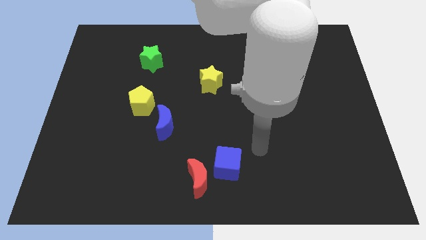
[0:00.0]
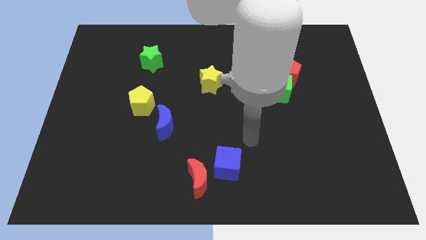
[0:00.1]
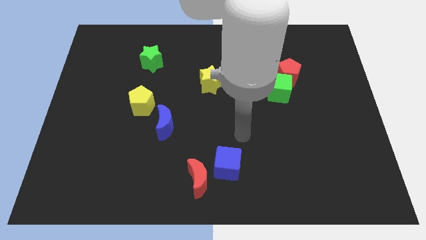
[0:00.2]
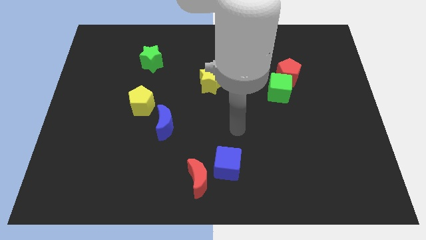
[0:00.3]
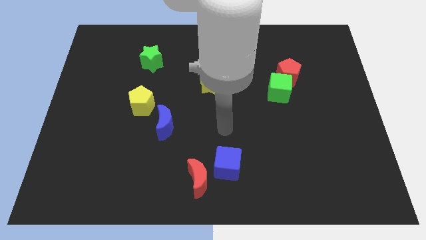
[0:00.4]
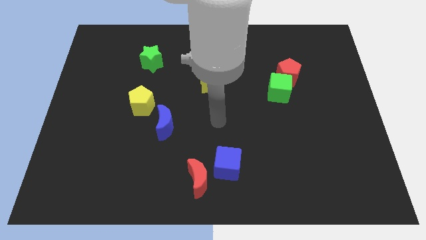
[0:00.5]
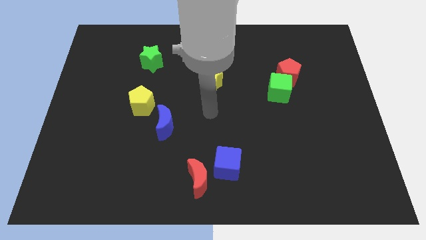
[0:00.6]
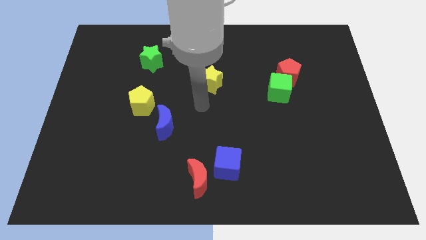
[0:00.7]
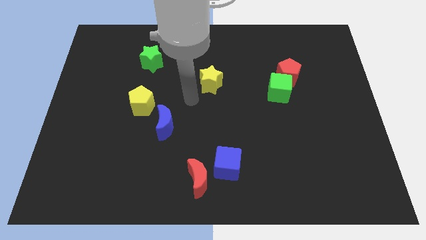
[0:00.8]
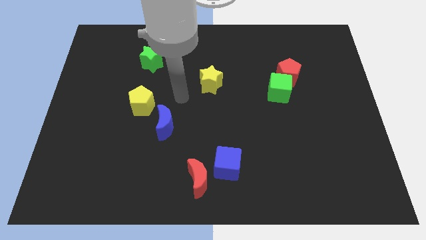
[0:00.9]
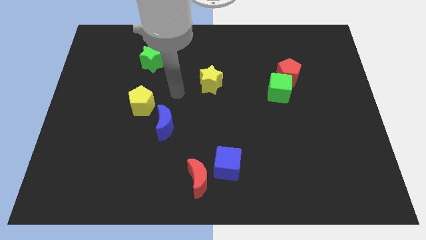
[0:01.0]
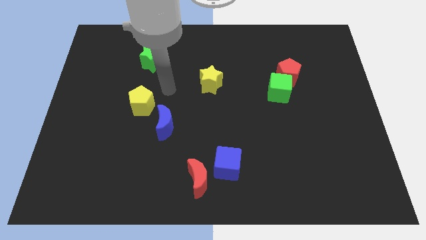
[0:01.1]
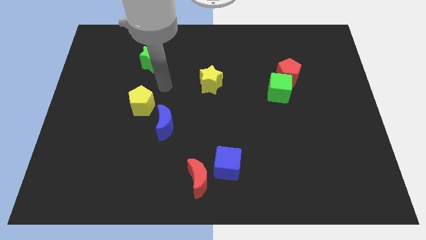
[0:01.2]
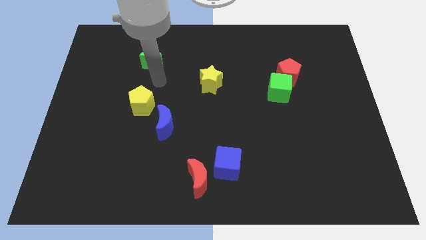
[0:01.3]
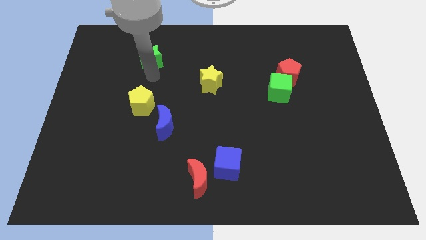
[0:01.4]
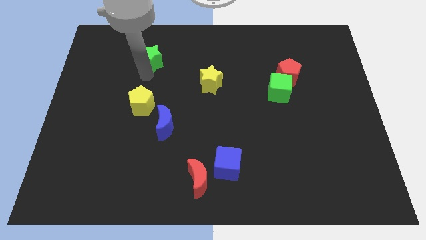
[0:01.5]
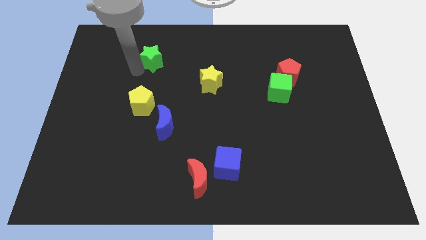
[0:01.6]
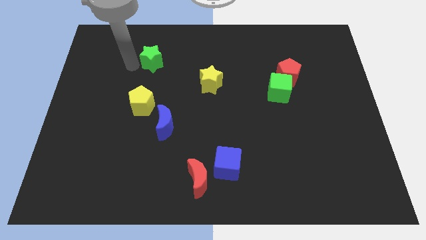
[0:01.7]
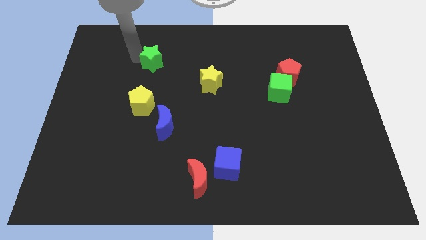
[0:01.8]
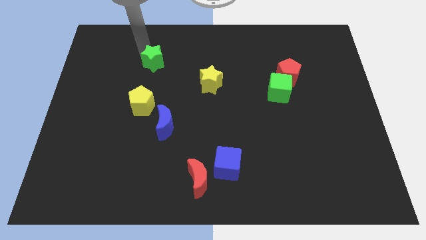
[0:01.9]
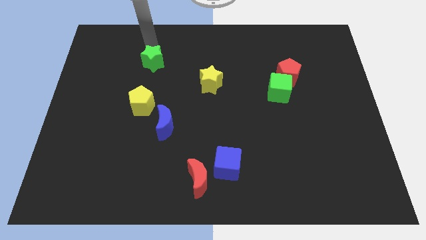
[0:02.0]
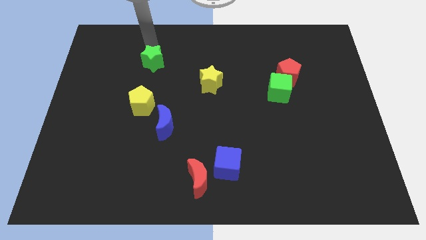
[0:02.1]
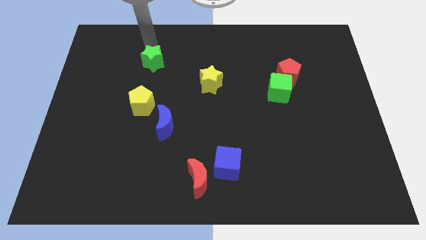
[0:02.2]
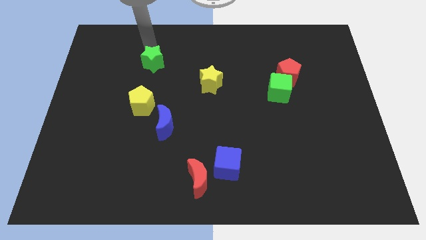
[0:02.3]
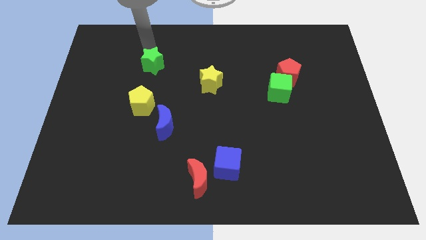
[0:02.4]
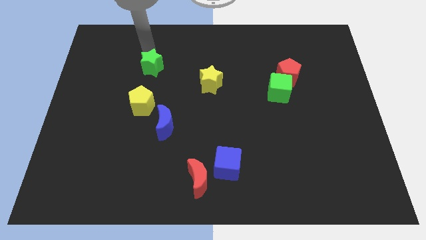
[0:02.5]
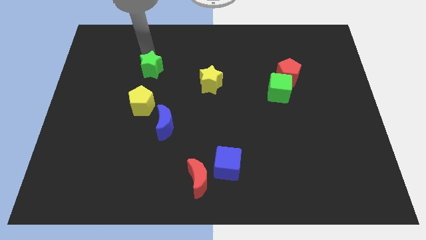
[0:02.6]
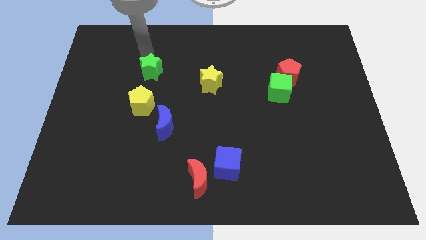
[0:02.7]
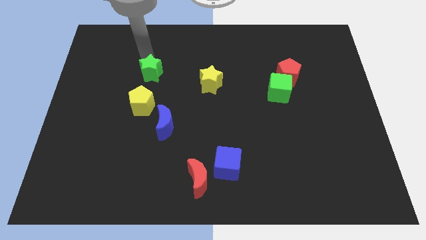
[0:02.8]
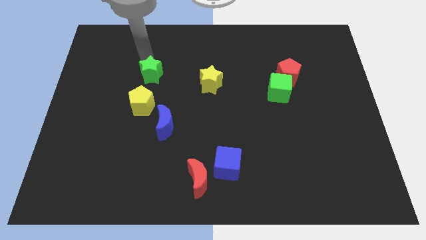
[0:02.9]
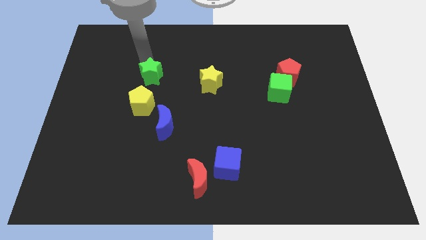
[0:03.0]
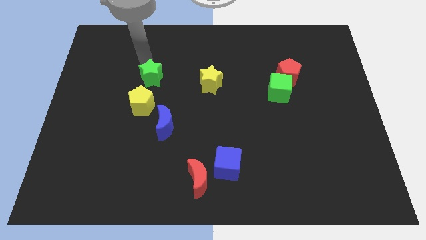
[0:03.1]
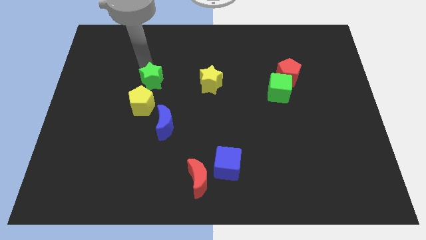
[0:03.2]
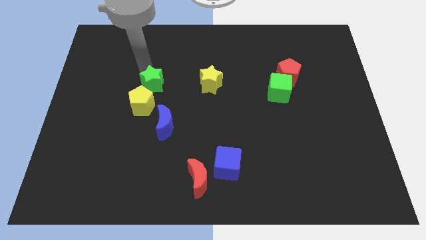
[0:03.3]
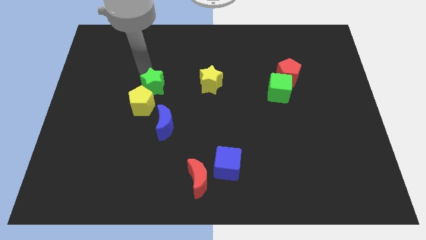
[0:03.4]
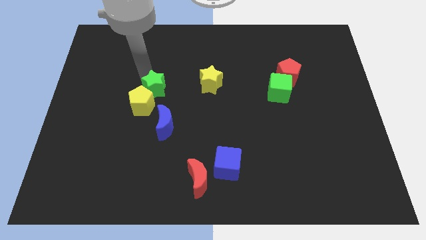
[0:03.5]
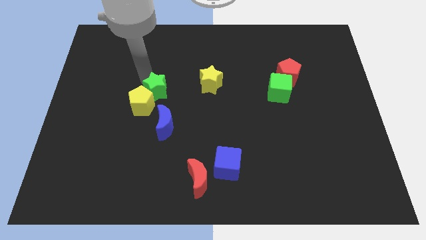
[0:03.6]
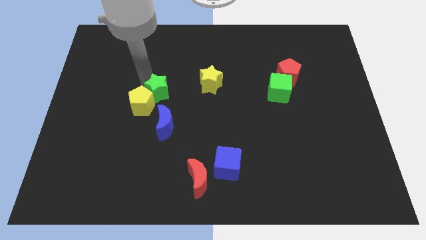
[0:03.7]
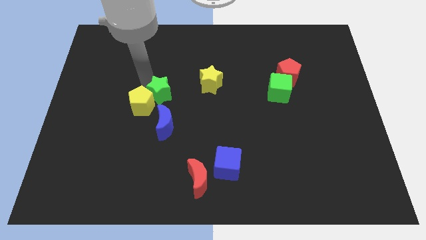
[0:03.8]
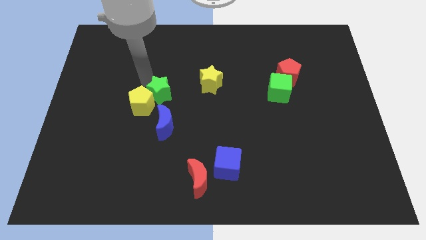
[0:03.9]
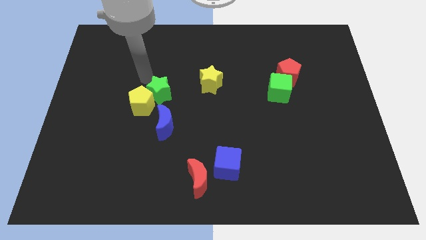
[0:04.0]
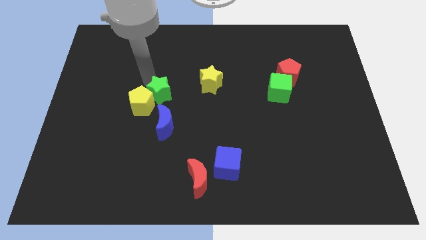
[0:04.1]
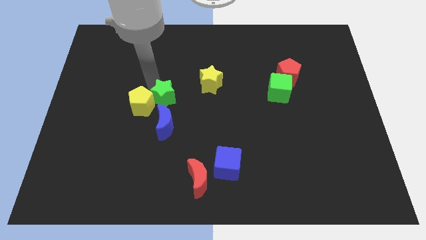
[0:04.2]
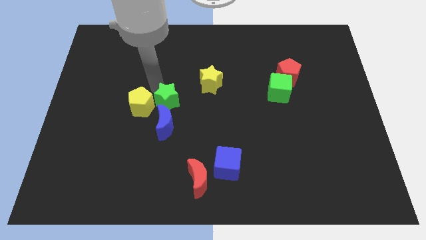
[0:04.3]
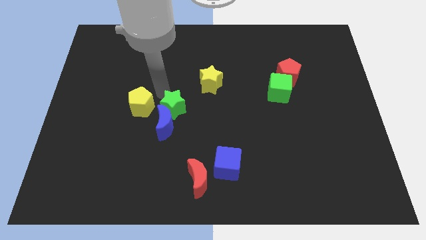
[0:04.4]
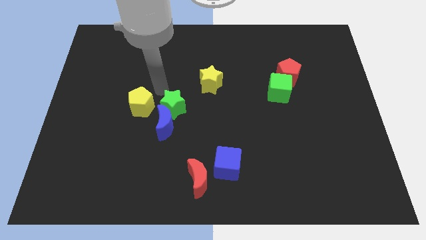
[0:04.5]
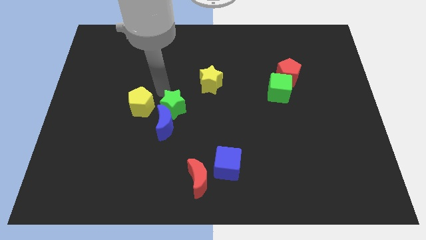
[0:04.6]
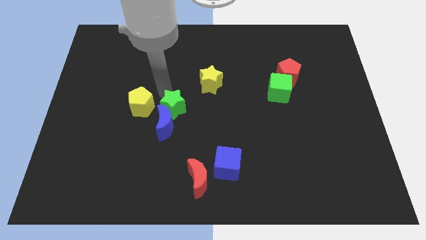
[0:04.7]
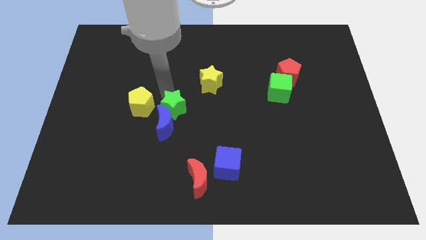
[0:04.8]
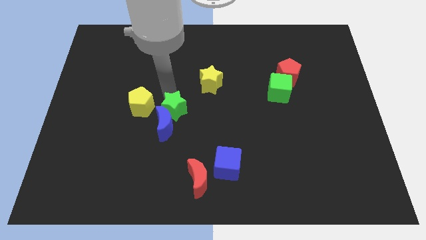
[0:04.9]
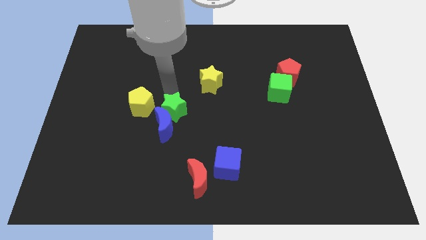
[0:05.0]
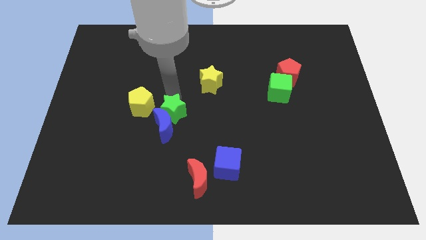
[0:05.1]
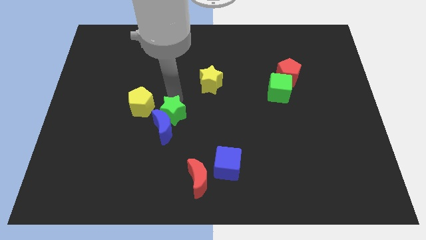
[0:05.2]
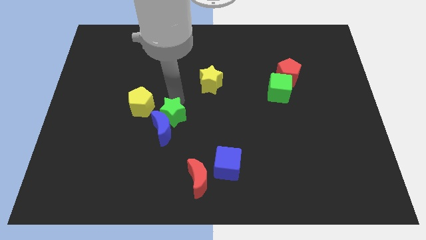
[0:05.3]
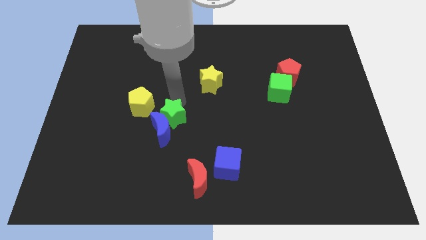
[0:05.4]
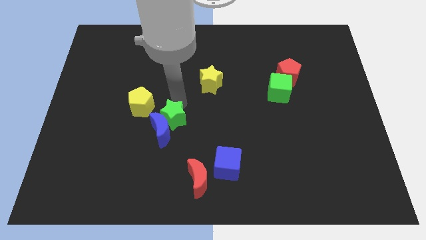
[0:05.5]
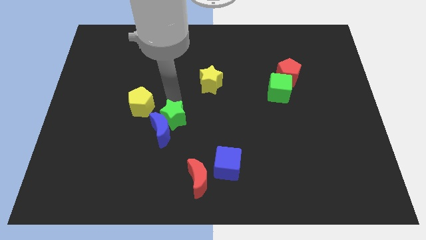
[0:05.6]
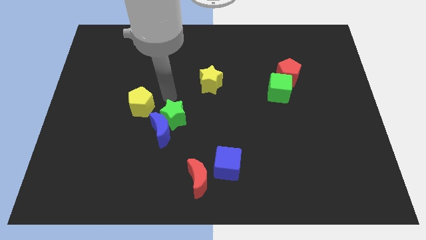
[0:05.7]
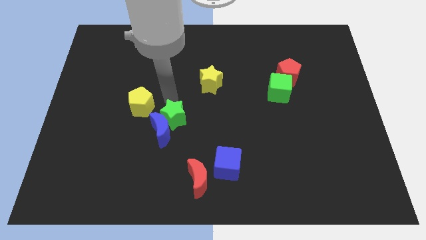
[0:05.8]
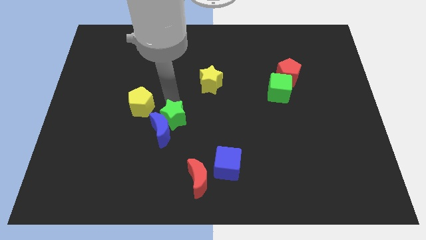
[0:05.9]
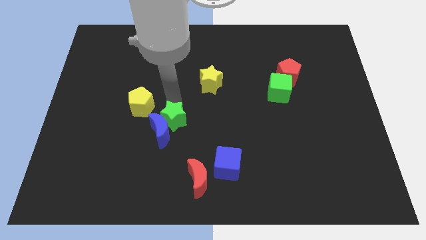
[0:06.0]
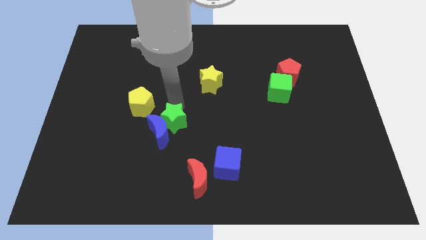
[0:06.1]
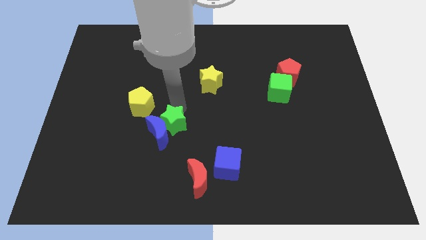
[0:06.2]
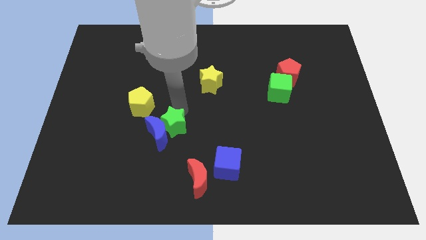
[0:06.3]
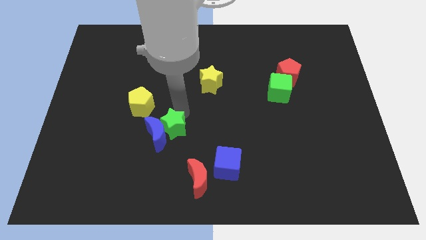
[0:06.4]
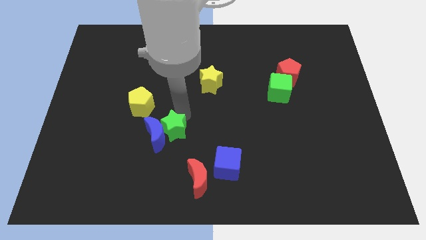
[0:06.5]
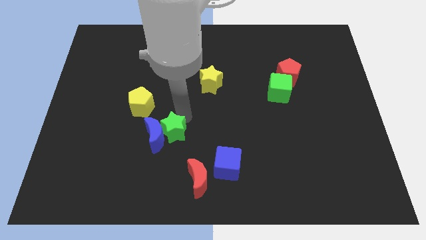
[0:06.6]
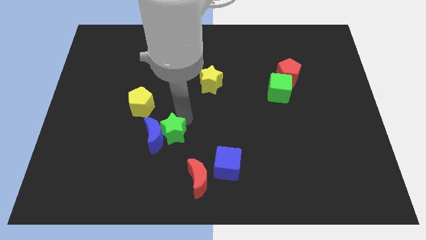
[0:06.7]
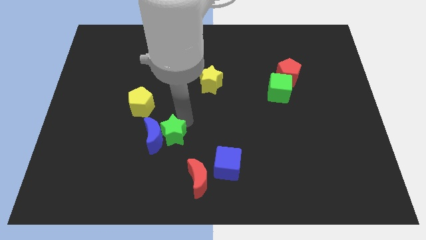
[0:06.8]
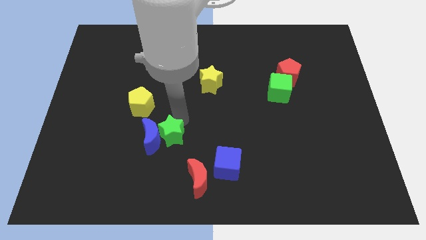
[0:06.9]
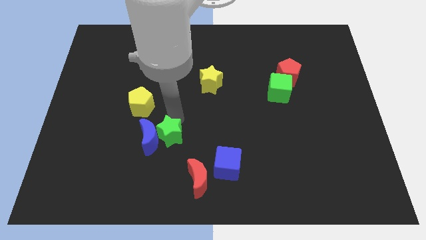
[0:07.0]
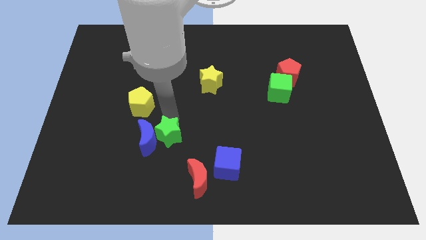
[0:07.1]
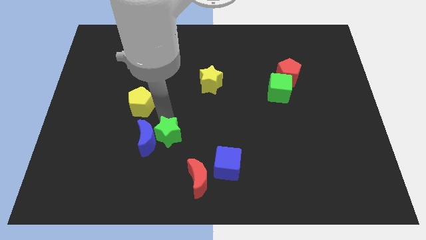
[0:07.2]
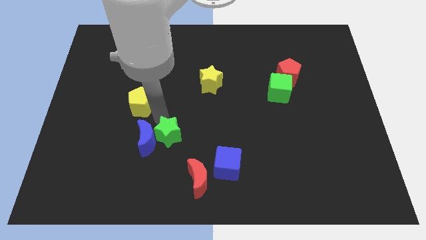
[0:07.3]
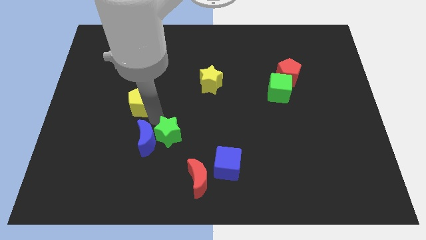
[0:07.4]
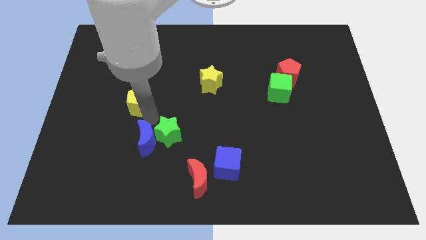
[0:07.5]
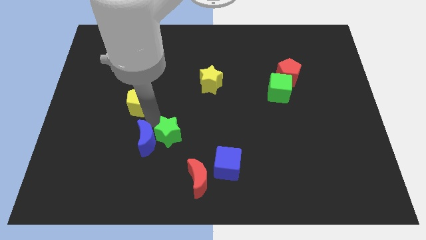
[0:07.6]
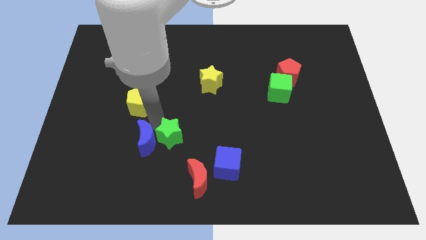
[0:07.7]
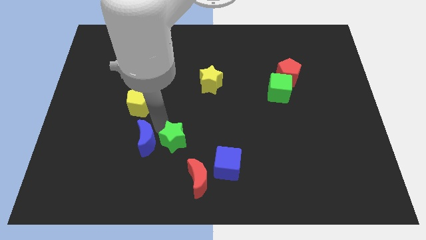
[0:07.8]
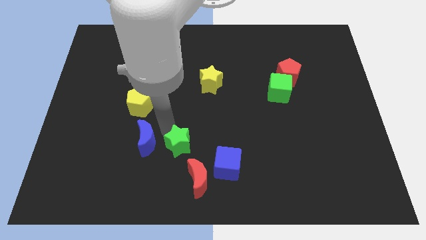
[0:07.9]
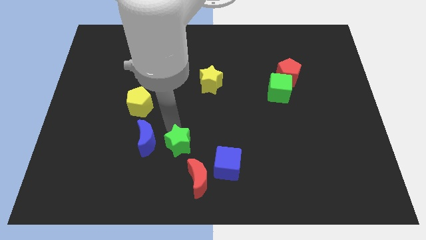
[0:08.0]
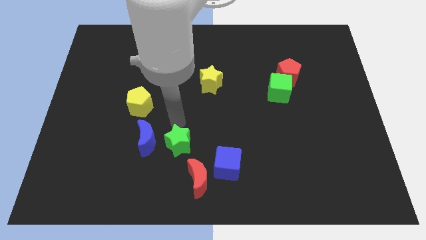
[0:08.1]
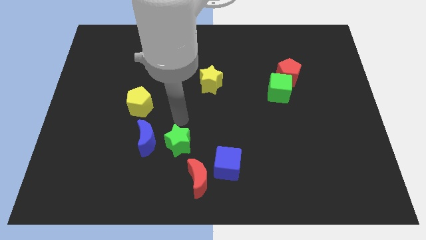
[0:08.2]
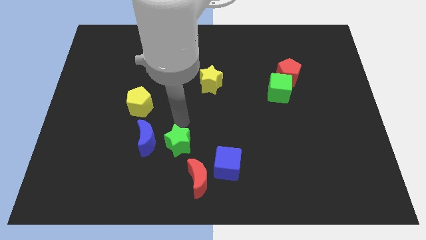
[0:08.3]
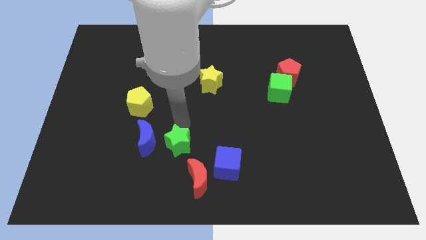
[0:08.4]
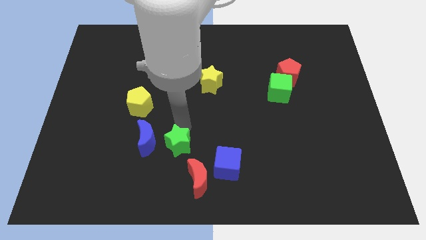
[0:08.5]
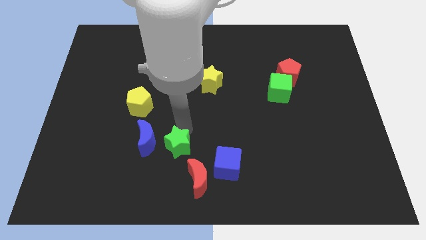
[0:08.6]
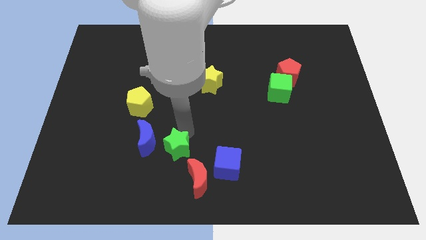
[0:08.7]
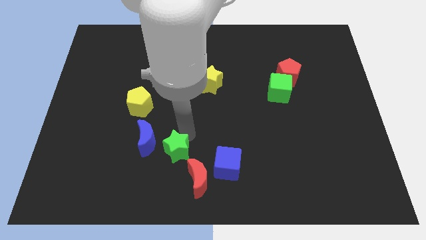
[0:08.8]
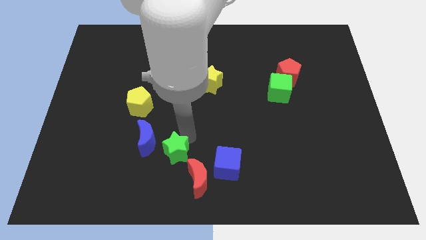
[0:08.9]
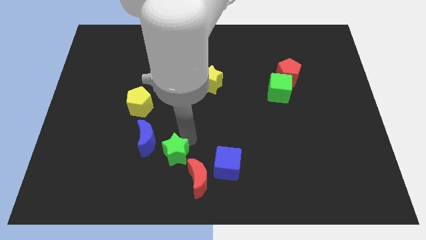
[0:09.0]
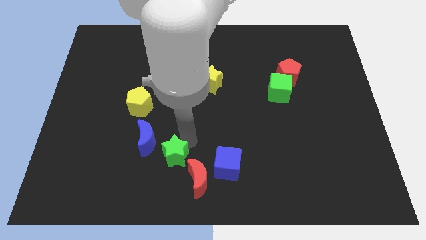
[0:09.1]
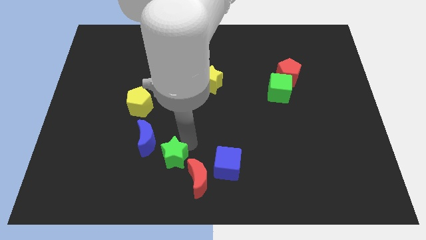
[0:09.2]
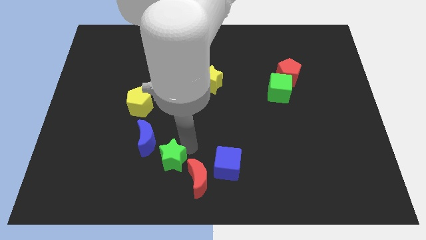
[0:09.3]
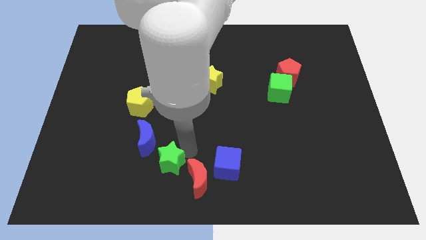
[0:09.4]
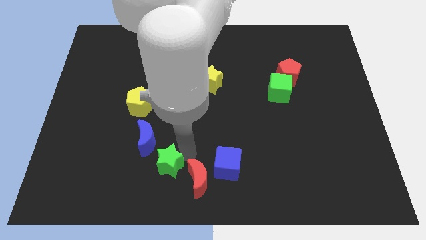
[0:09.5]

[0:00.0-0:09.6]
slide the green star to the bottom
